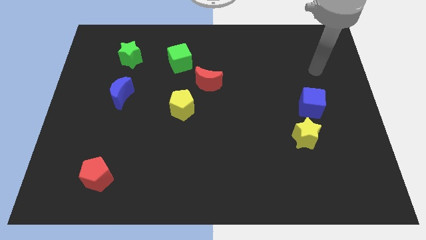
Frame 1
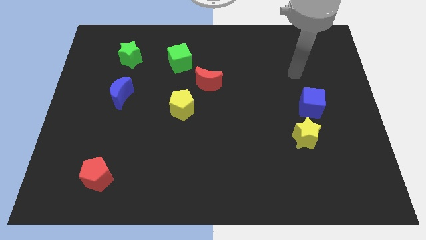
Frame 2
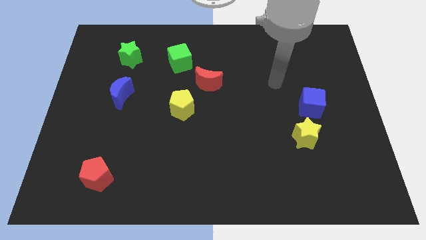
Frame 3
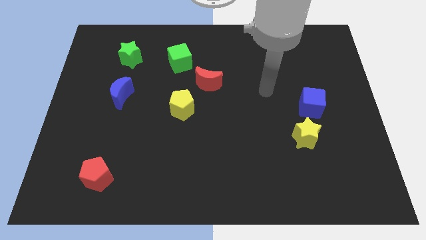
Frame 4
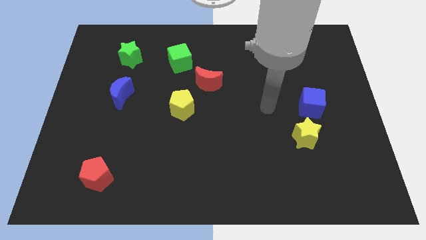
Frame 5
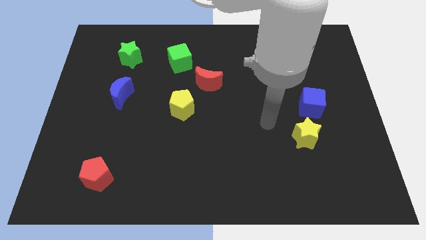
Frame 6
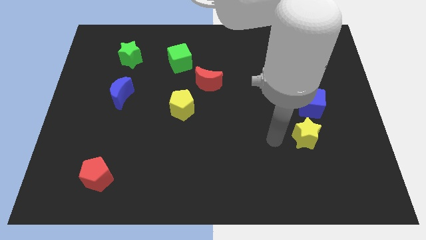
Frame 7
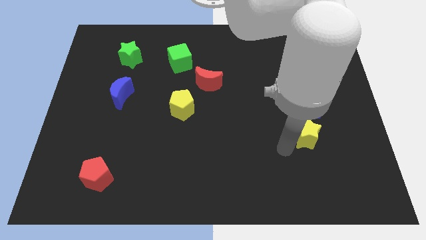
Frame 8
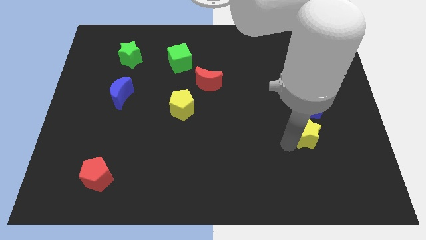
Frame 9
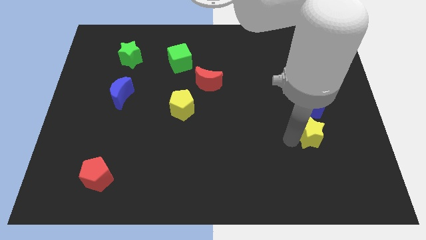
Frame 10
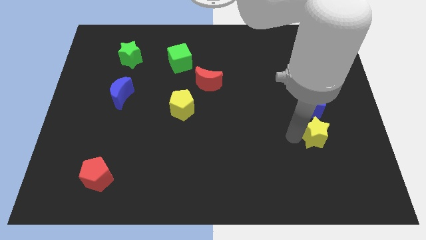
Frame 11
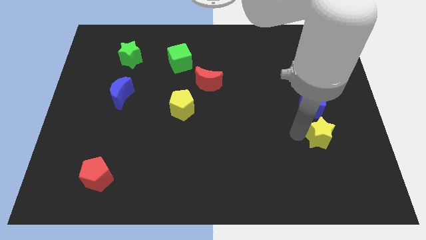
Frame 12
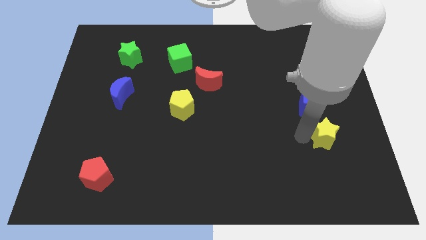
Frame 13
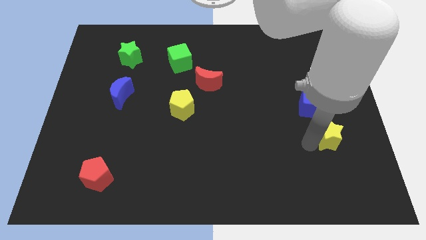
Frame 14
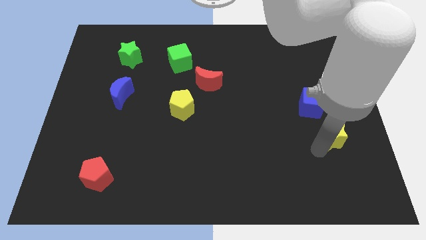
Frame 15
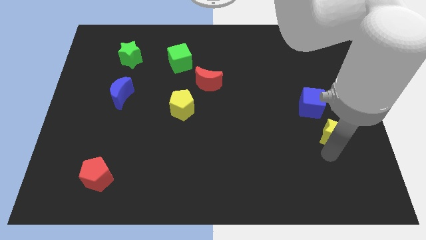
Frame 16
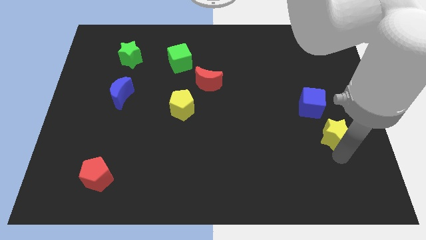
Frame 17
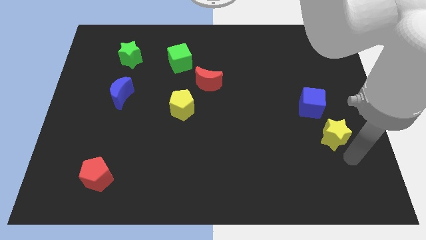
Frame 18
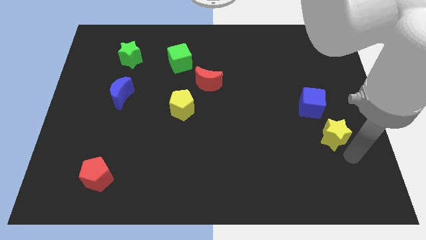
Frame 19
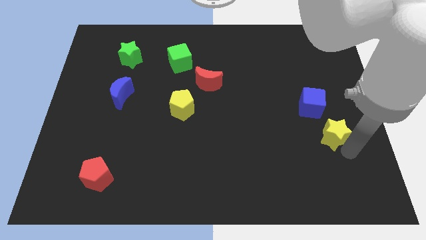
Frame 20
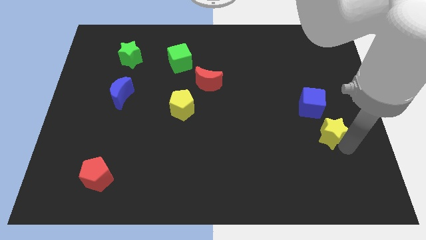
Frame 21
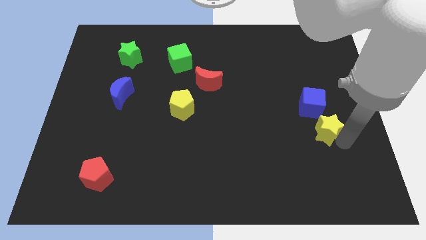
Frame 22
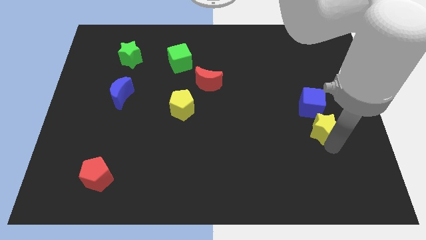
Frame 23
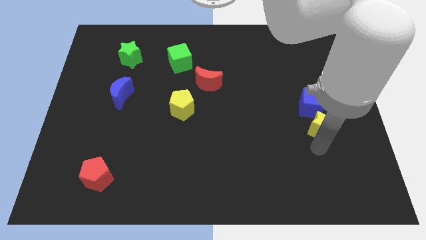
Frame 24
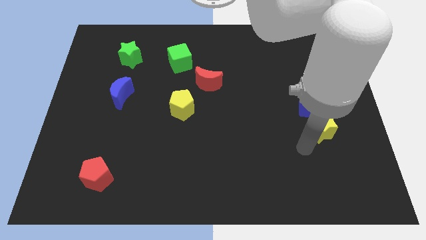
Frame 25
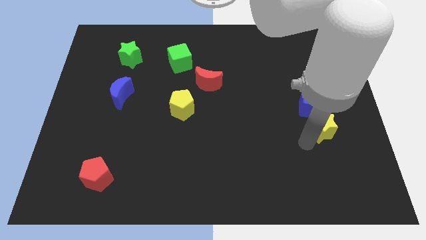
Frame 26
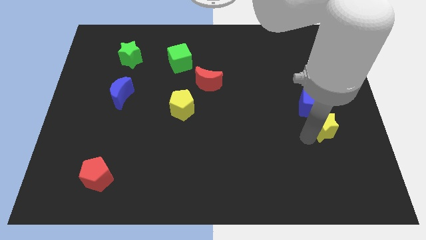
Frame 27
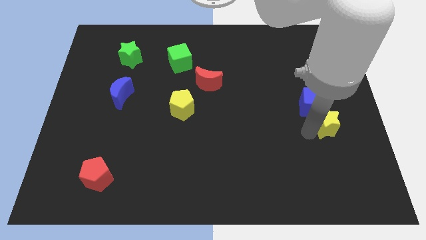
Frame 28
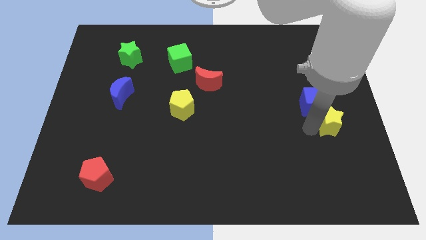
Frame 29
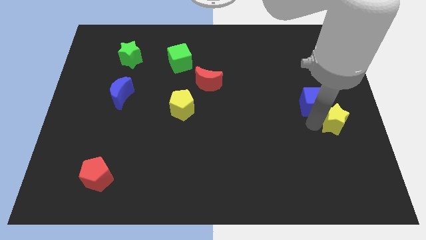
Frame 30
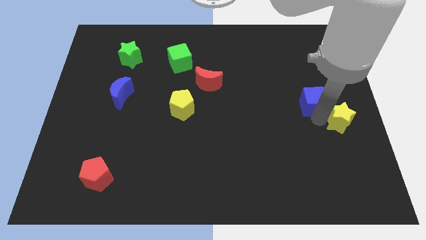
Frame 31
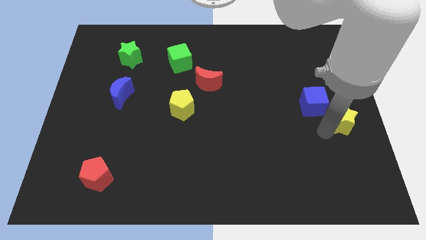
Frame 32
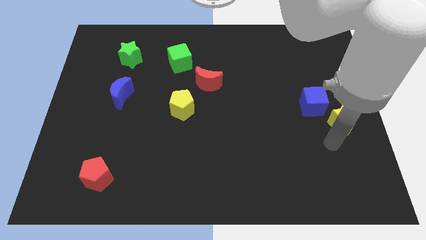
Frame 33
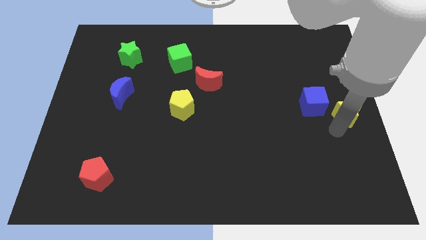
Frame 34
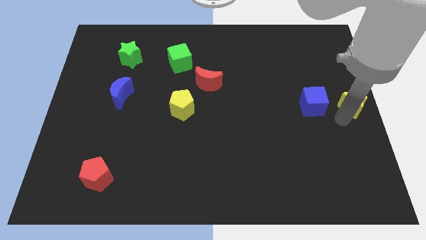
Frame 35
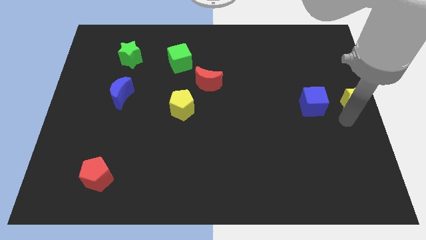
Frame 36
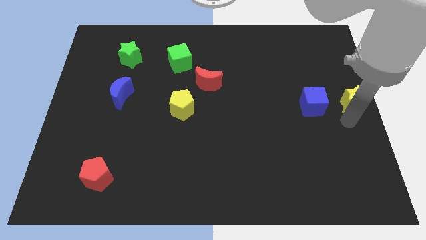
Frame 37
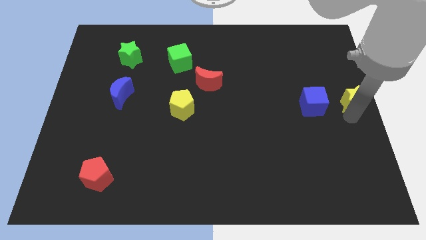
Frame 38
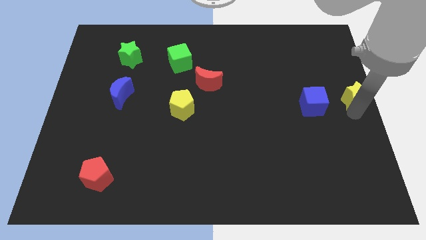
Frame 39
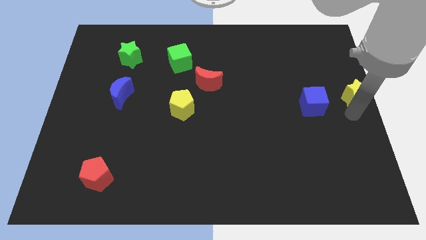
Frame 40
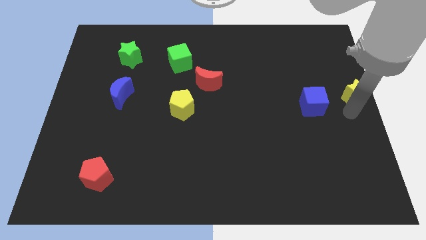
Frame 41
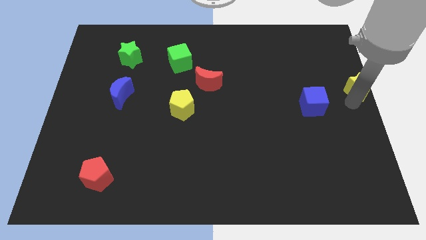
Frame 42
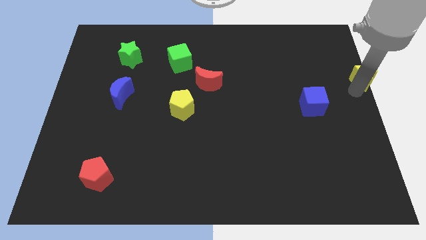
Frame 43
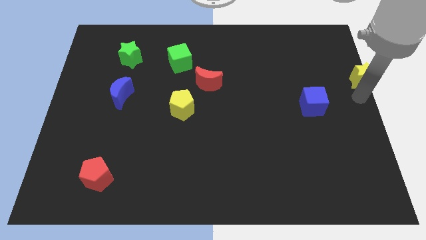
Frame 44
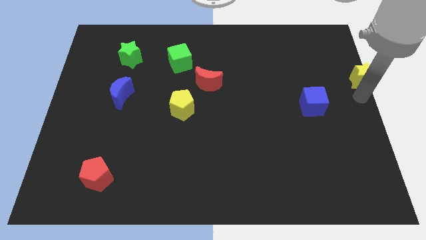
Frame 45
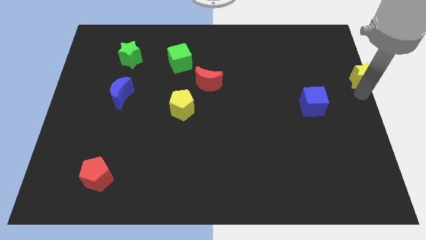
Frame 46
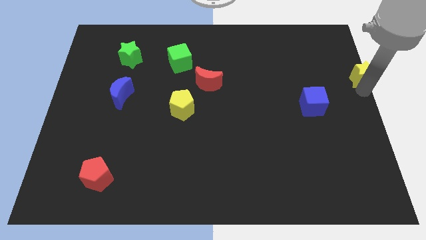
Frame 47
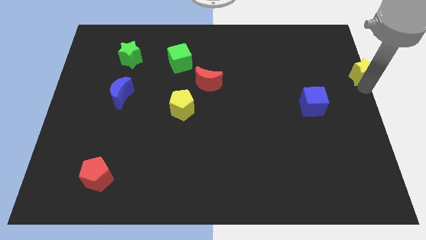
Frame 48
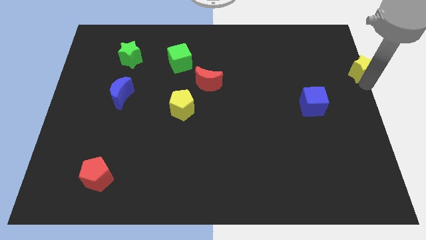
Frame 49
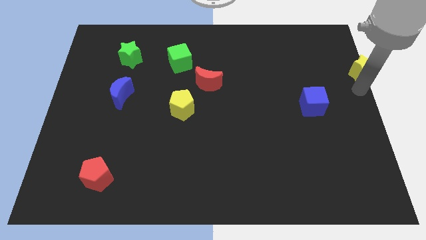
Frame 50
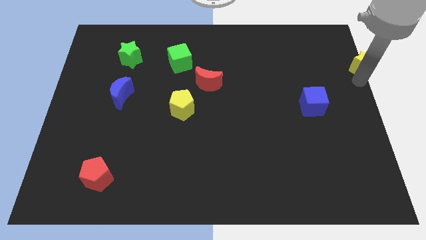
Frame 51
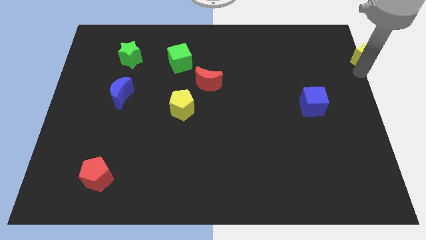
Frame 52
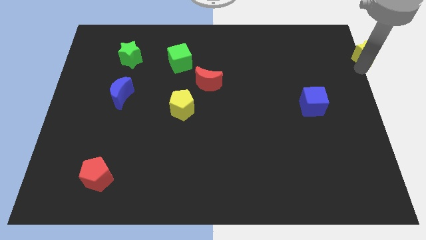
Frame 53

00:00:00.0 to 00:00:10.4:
move the yellow star to the upper right corner

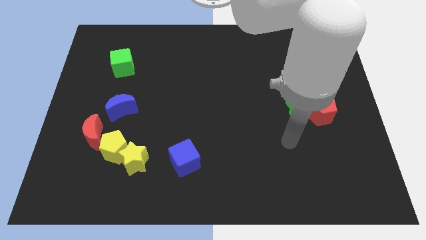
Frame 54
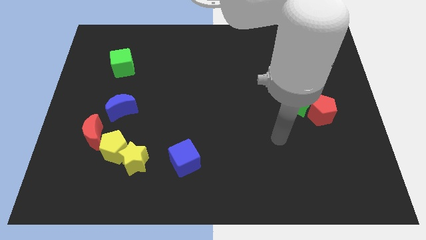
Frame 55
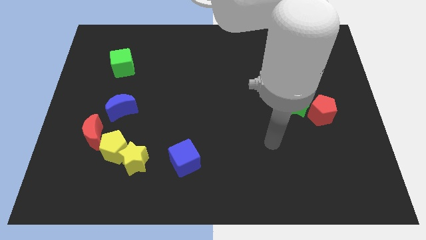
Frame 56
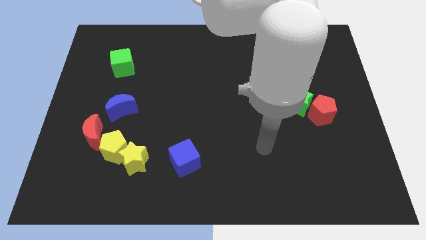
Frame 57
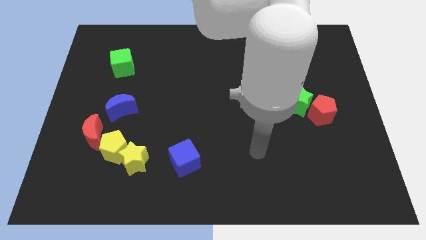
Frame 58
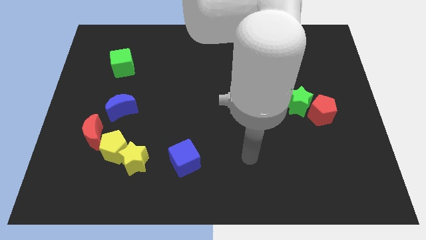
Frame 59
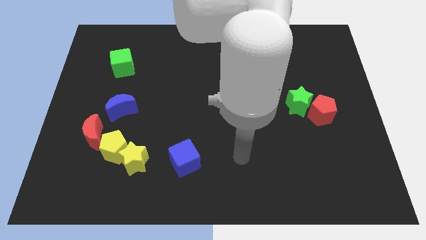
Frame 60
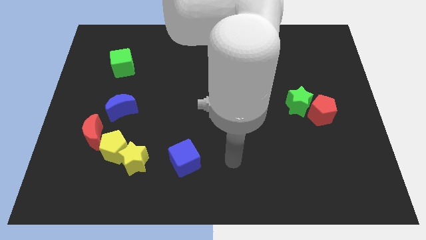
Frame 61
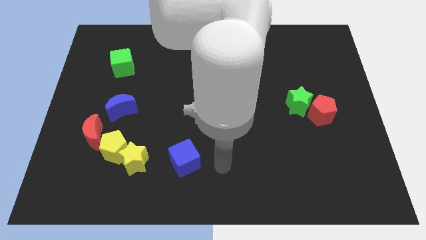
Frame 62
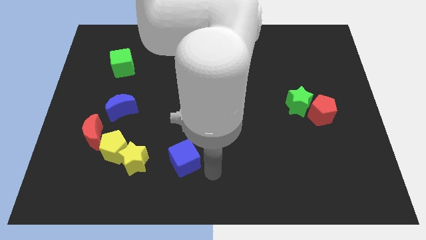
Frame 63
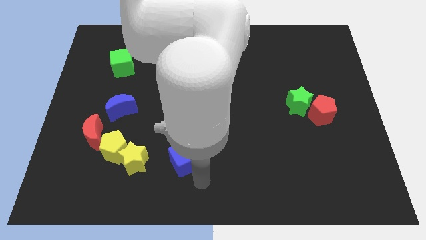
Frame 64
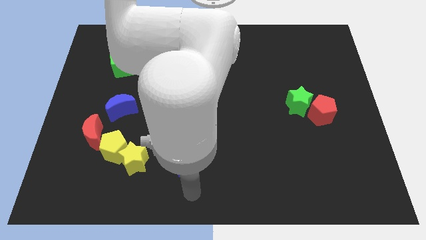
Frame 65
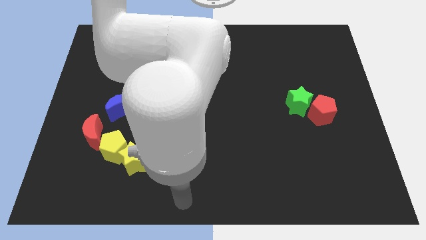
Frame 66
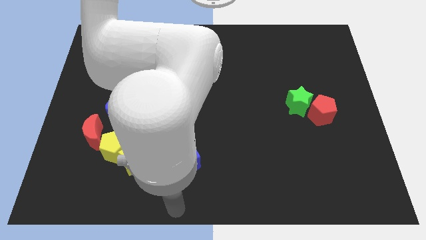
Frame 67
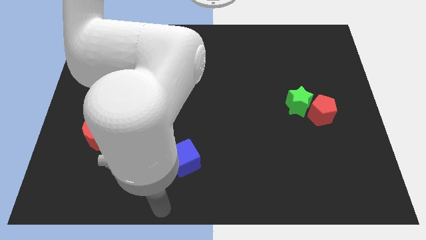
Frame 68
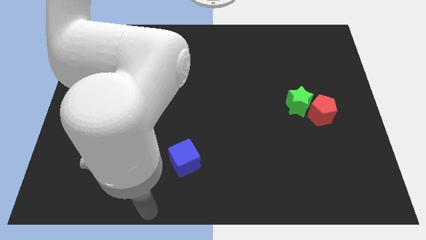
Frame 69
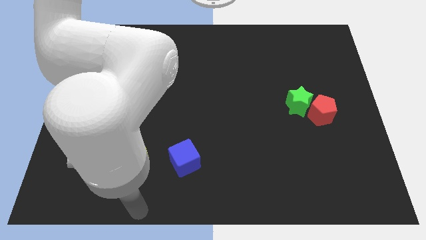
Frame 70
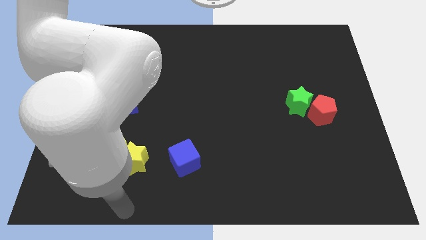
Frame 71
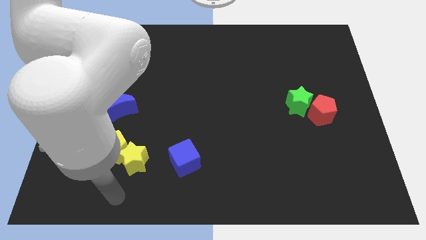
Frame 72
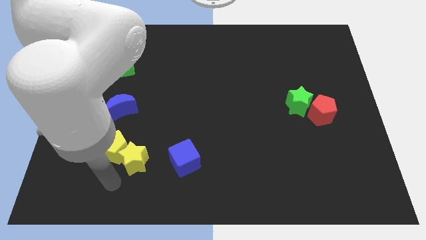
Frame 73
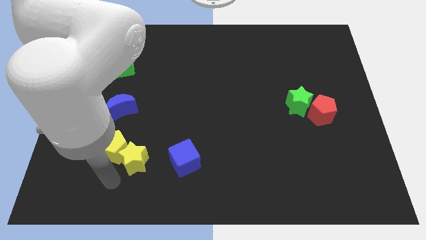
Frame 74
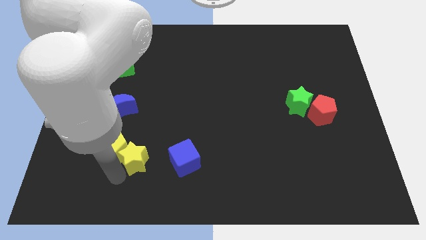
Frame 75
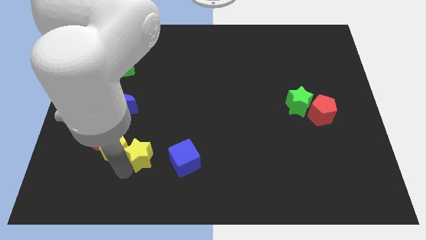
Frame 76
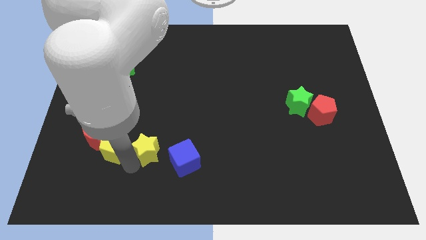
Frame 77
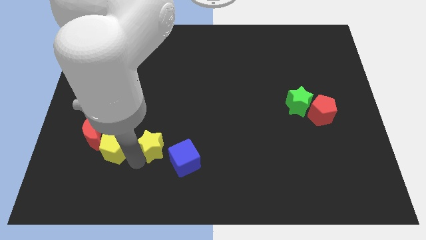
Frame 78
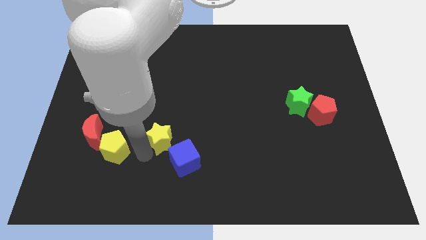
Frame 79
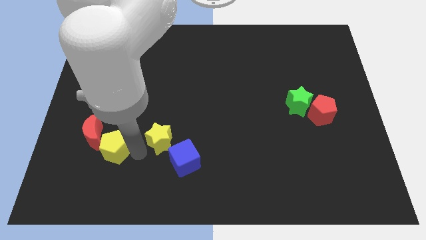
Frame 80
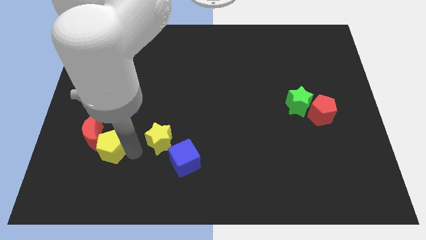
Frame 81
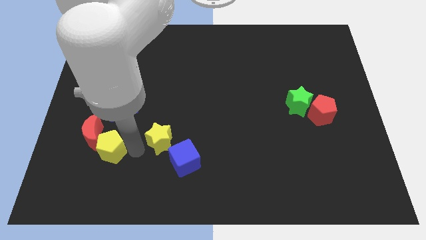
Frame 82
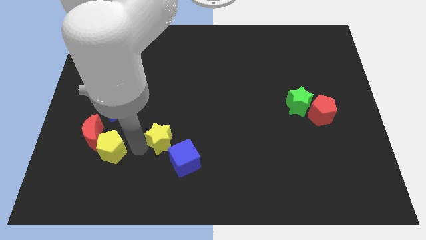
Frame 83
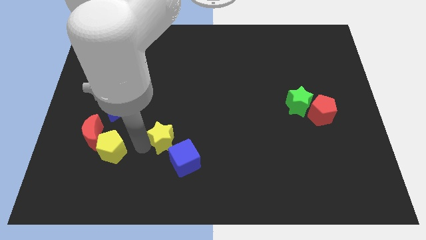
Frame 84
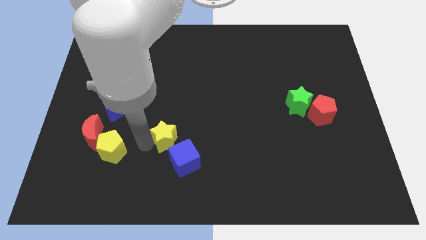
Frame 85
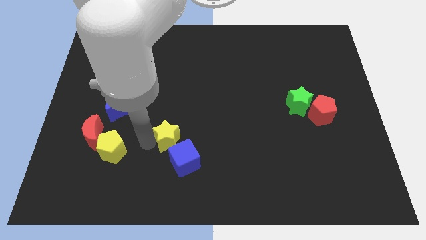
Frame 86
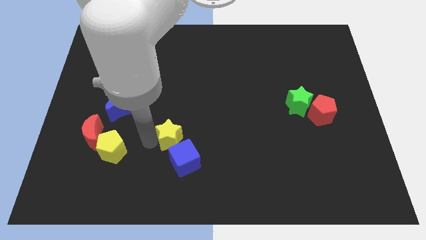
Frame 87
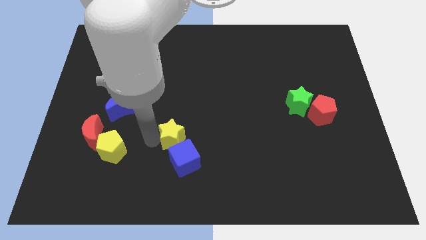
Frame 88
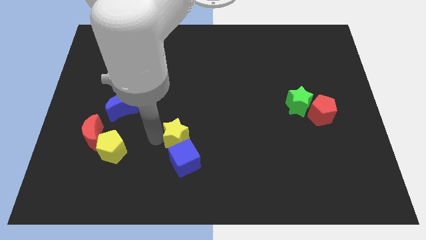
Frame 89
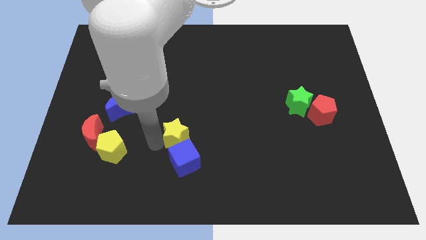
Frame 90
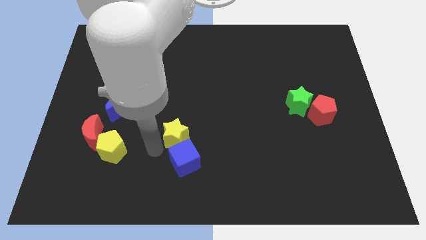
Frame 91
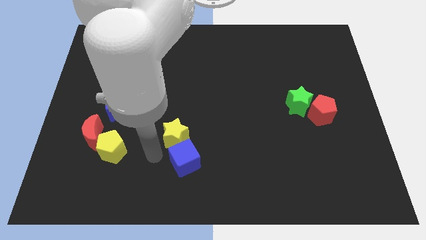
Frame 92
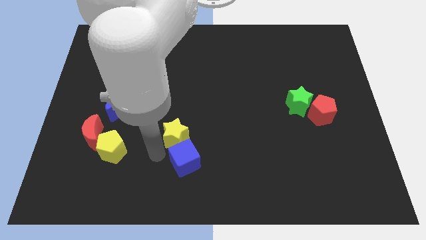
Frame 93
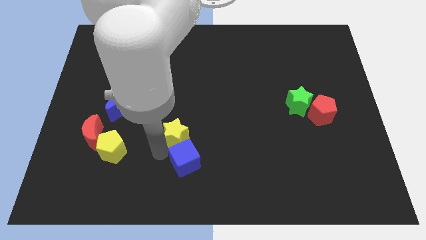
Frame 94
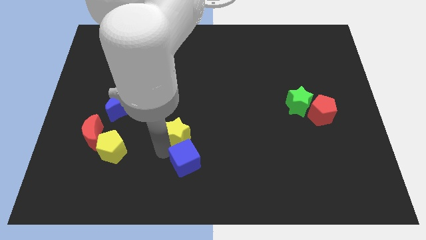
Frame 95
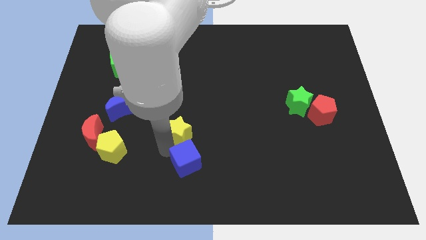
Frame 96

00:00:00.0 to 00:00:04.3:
slide the yellow star to the middle of the board
